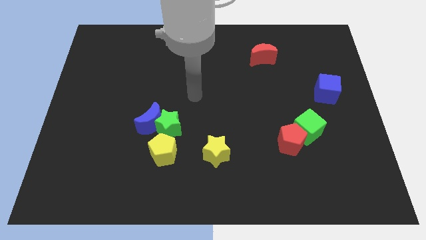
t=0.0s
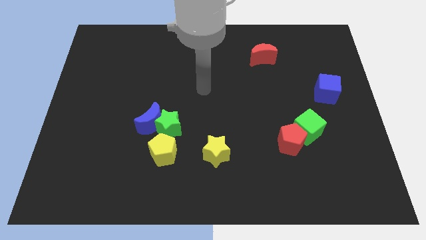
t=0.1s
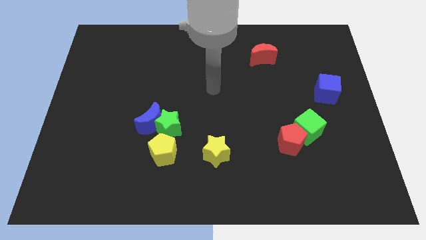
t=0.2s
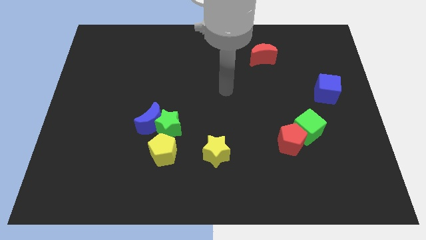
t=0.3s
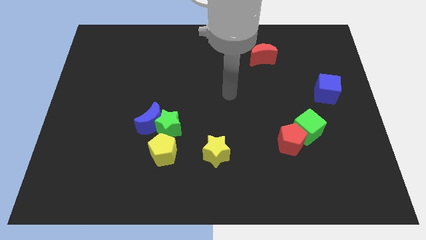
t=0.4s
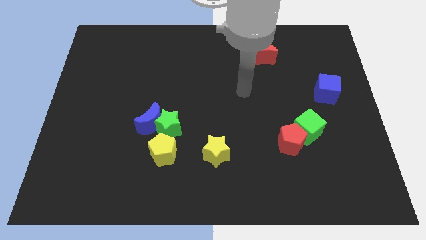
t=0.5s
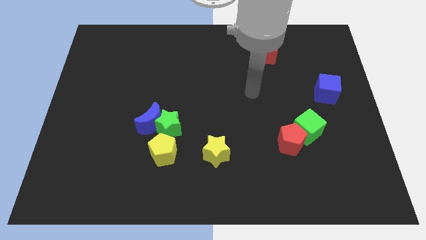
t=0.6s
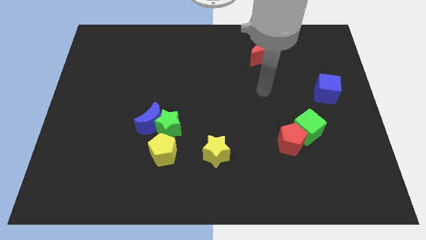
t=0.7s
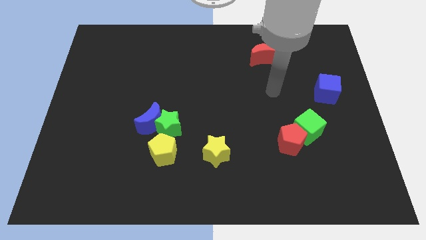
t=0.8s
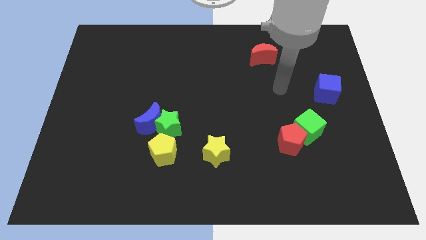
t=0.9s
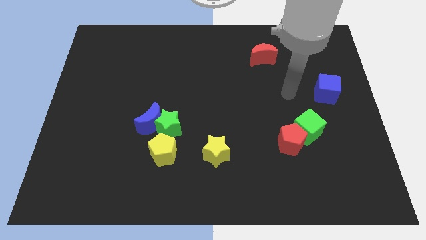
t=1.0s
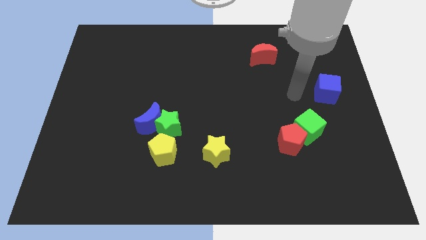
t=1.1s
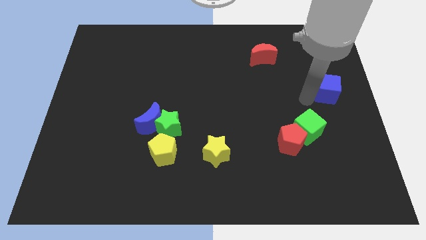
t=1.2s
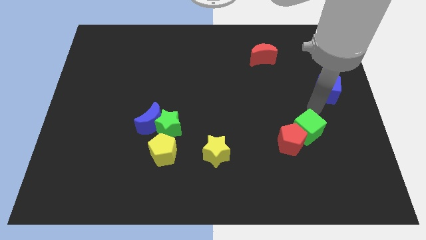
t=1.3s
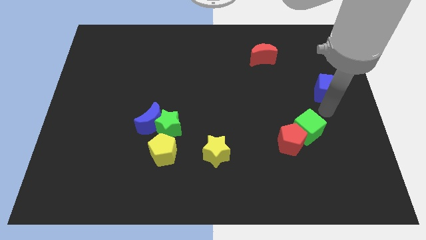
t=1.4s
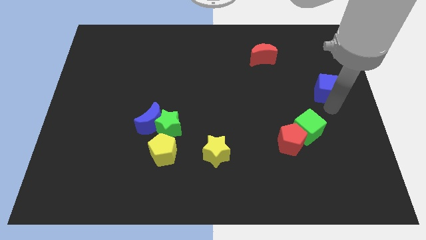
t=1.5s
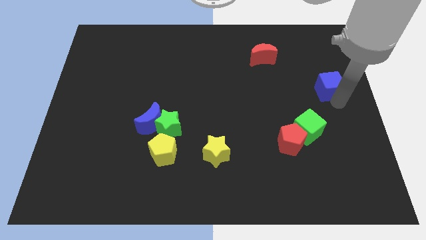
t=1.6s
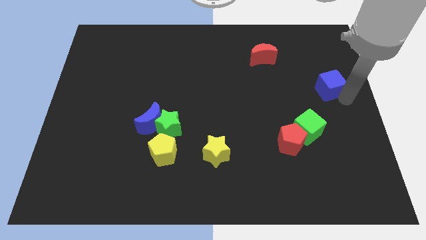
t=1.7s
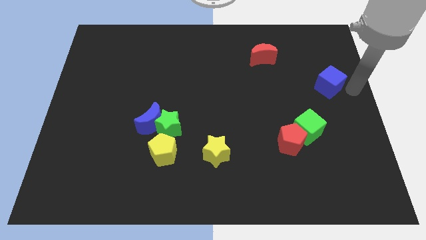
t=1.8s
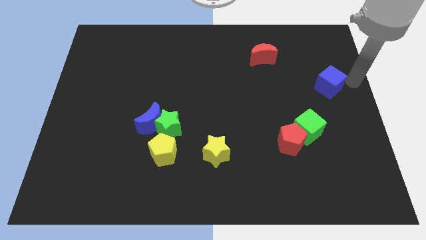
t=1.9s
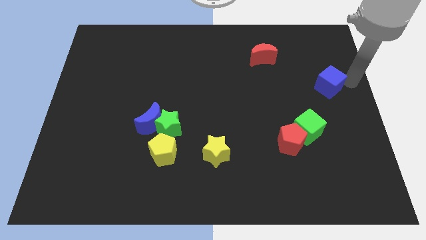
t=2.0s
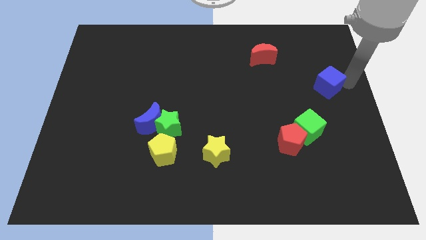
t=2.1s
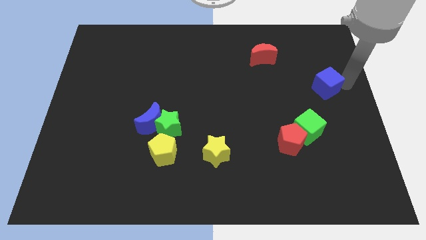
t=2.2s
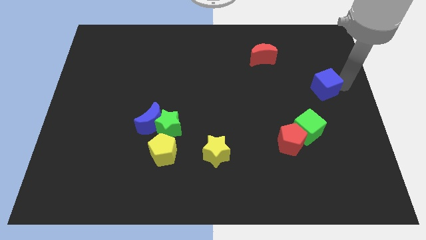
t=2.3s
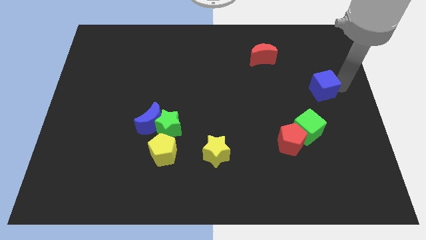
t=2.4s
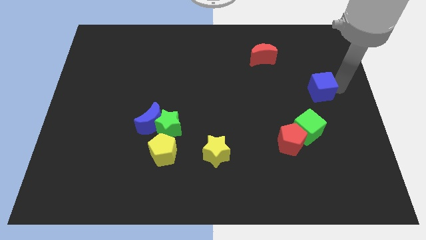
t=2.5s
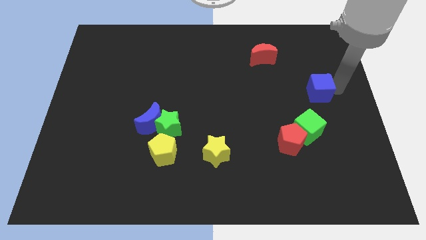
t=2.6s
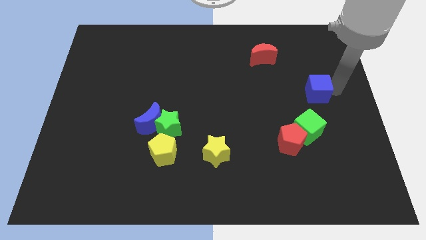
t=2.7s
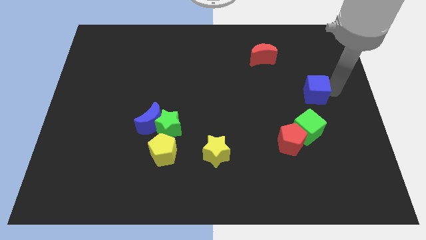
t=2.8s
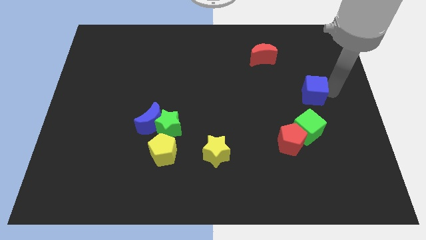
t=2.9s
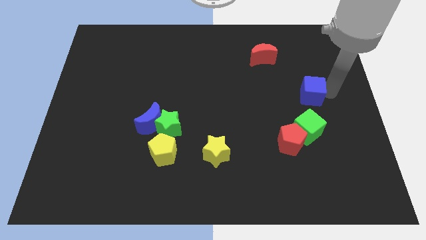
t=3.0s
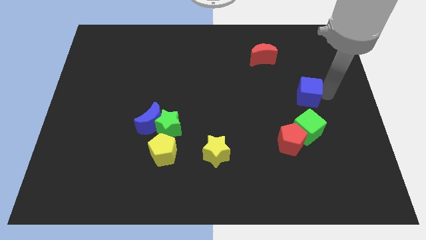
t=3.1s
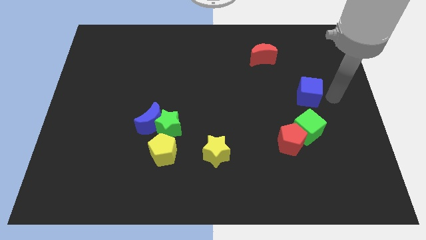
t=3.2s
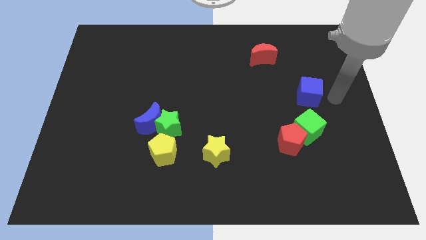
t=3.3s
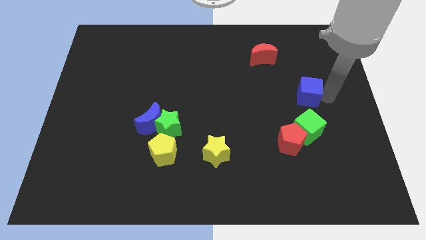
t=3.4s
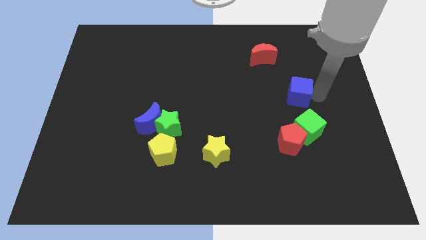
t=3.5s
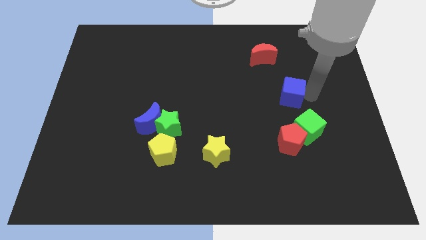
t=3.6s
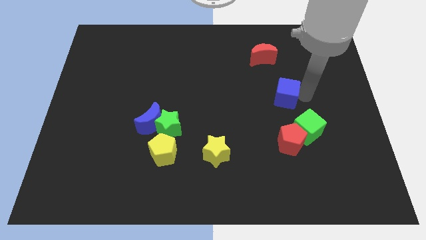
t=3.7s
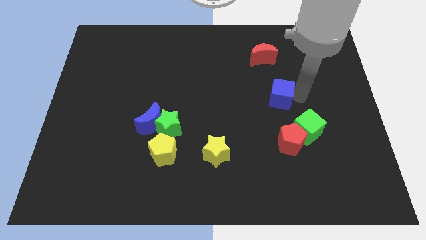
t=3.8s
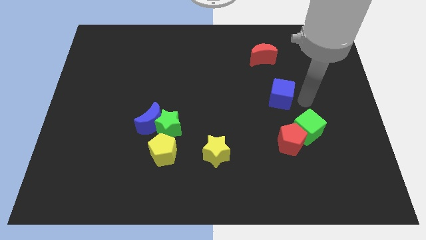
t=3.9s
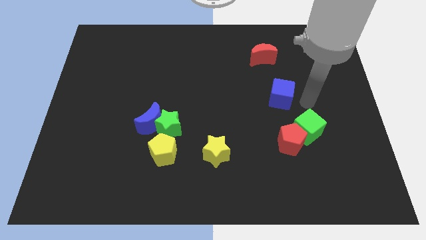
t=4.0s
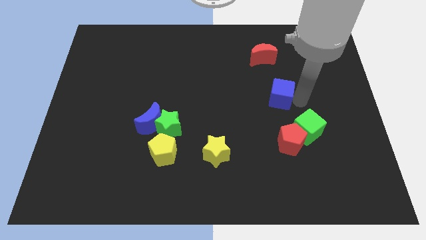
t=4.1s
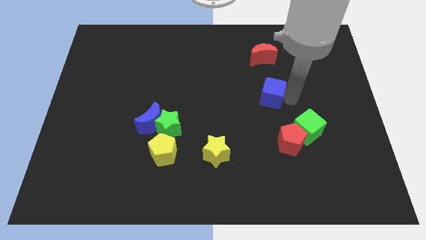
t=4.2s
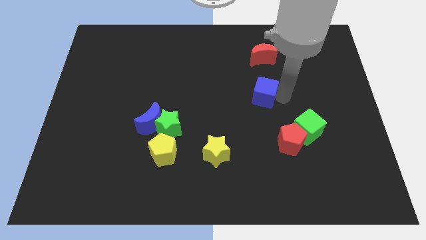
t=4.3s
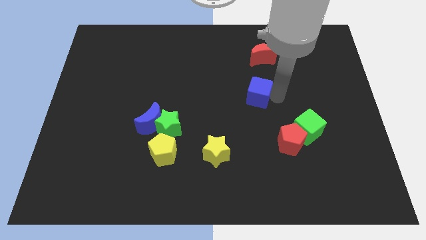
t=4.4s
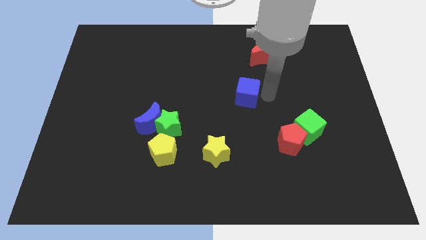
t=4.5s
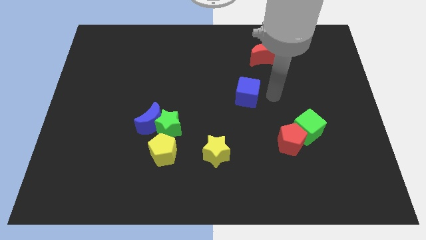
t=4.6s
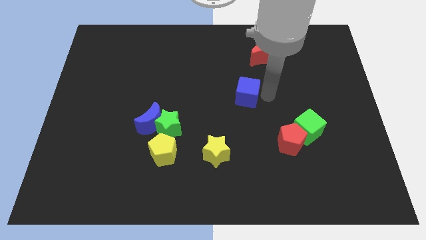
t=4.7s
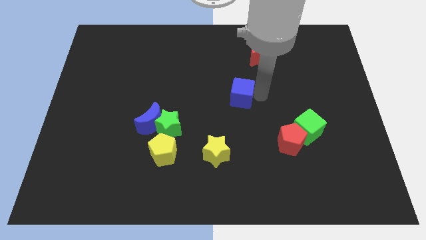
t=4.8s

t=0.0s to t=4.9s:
move the blue cube left

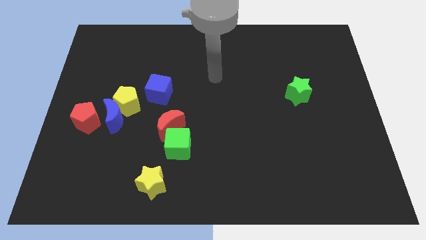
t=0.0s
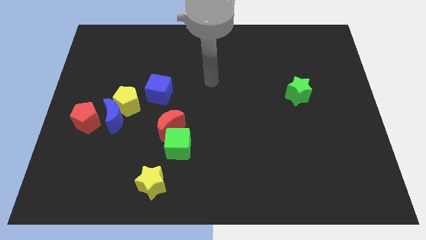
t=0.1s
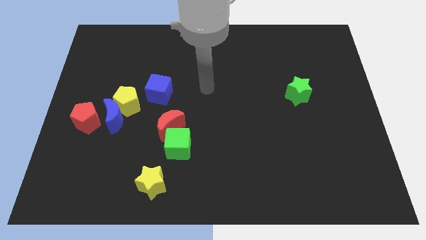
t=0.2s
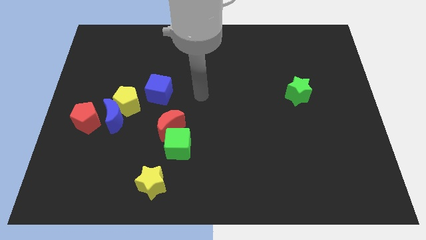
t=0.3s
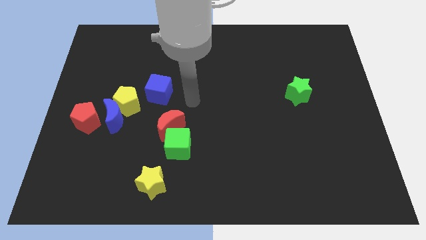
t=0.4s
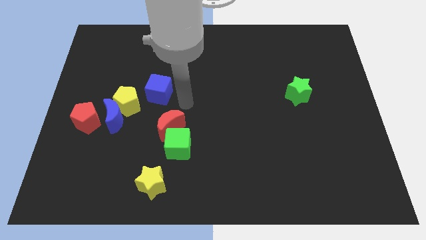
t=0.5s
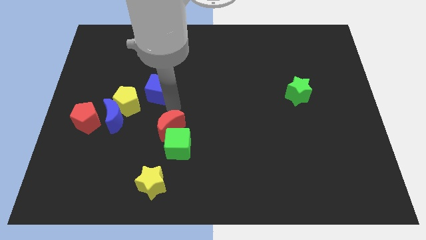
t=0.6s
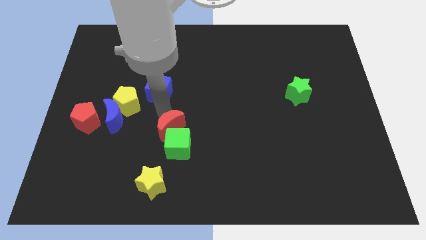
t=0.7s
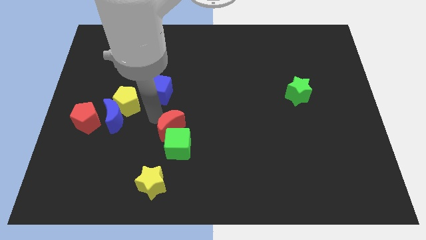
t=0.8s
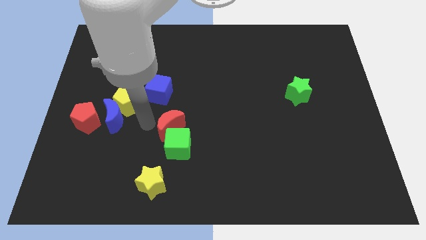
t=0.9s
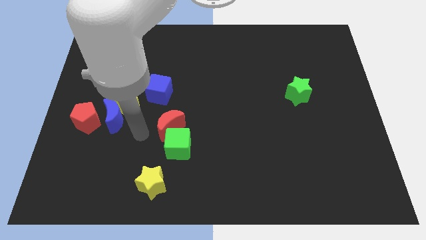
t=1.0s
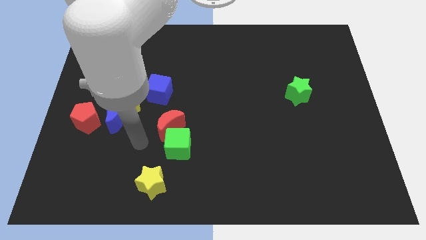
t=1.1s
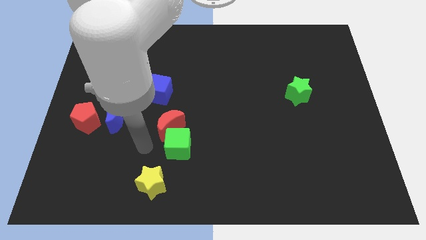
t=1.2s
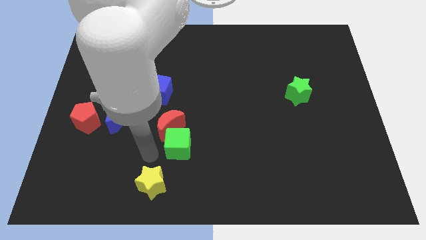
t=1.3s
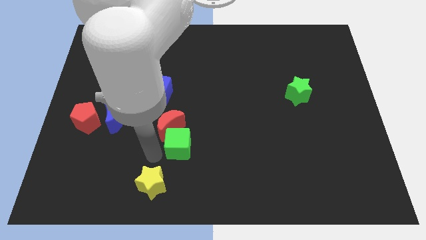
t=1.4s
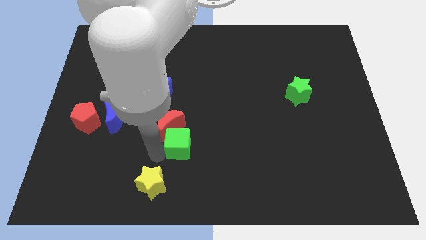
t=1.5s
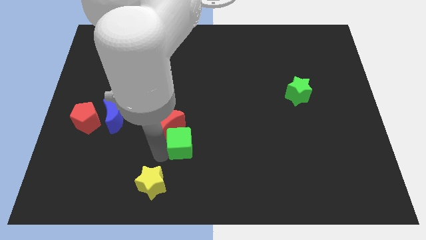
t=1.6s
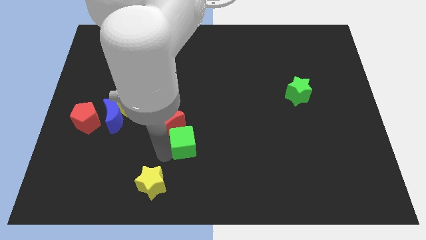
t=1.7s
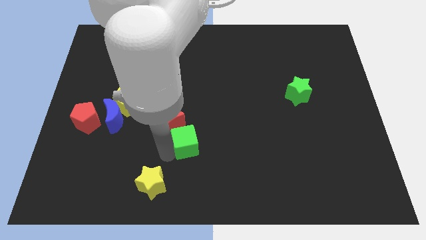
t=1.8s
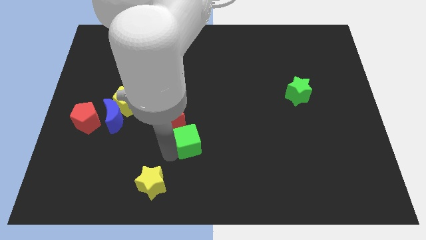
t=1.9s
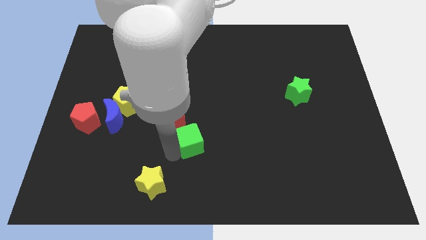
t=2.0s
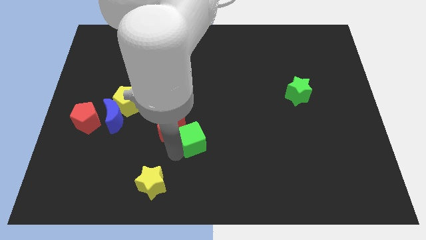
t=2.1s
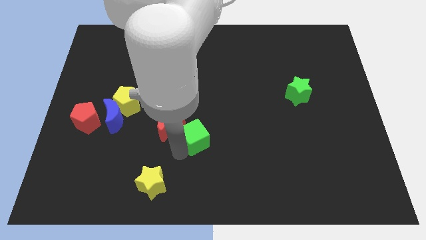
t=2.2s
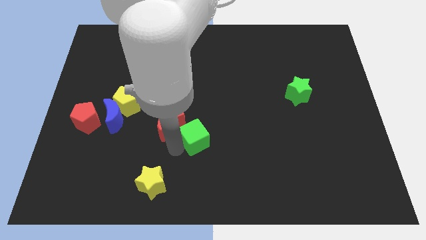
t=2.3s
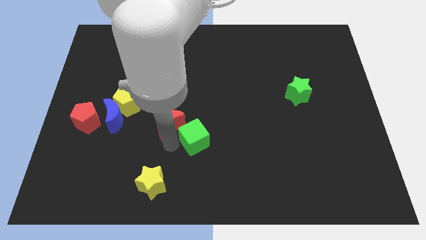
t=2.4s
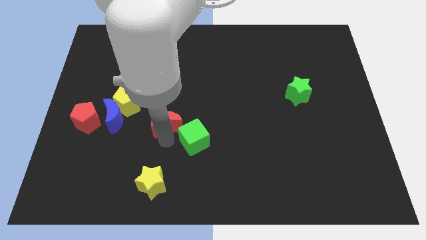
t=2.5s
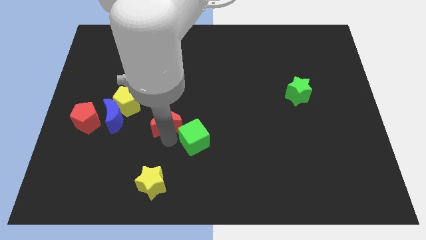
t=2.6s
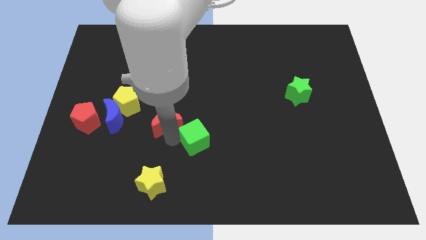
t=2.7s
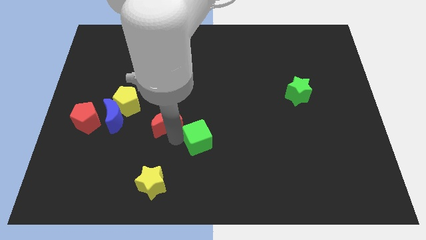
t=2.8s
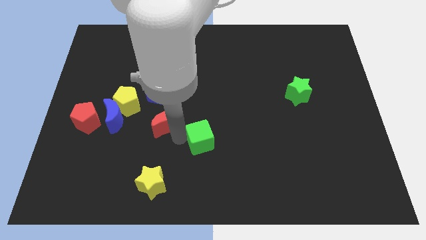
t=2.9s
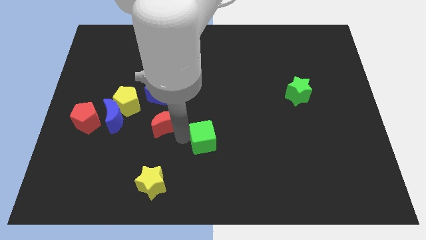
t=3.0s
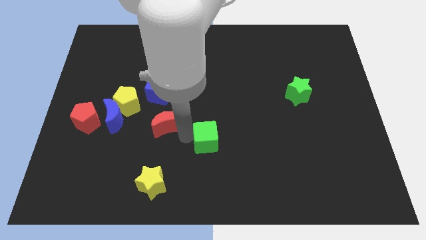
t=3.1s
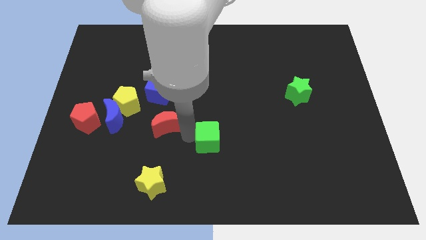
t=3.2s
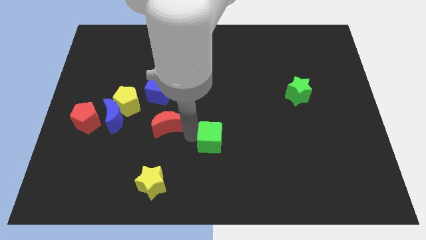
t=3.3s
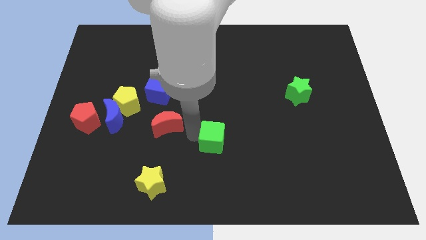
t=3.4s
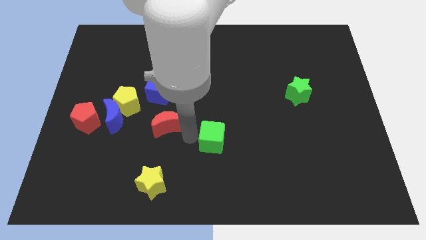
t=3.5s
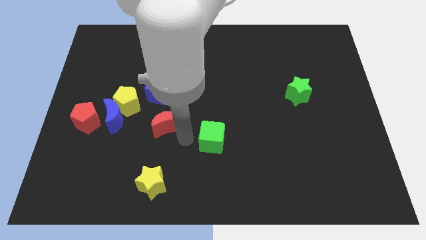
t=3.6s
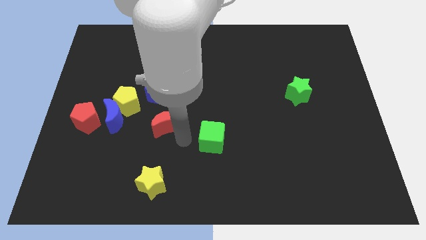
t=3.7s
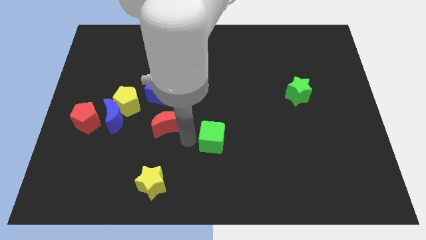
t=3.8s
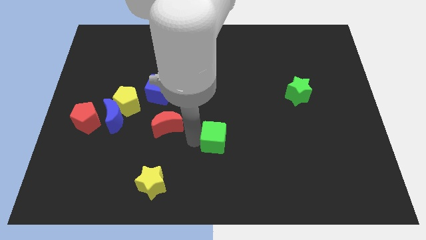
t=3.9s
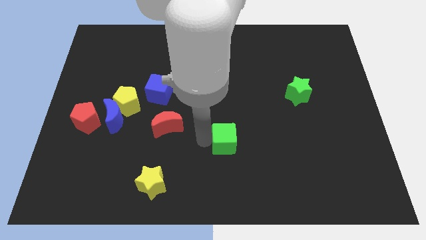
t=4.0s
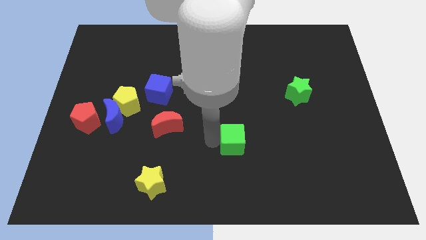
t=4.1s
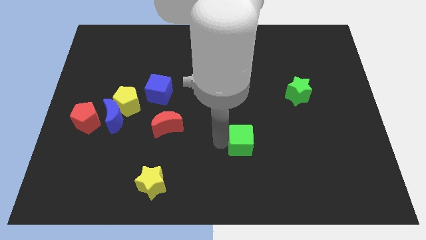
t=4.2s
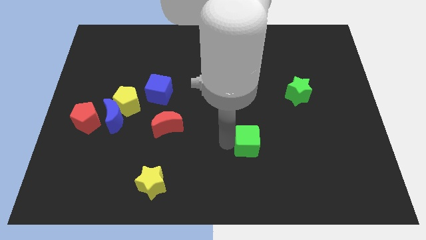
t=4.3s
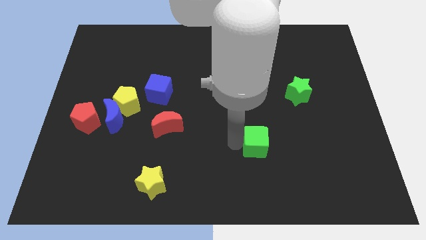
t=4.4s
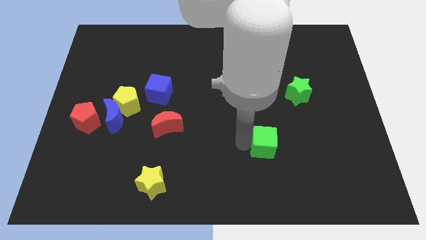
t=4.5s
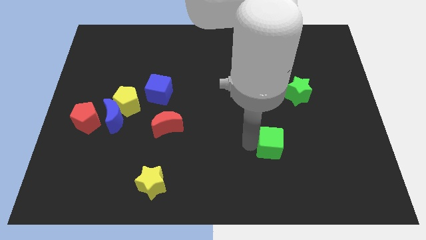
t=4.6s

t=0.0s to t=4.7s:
push the green cube to the right
